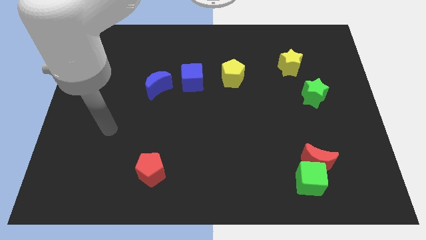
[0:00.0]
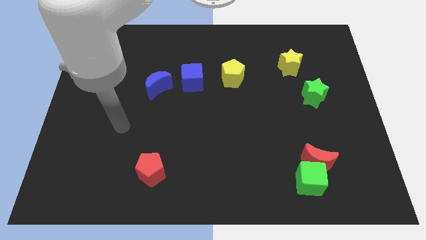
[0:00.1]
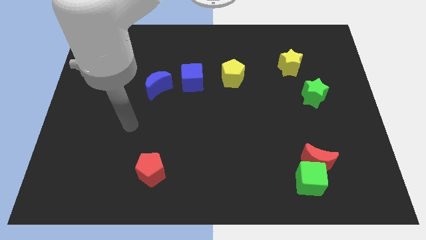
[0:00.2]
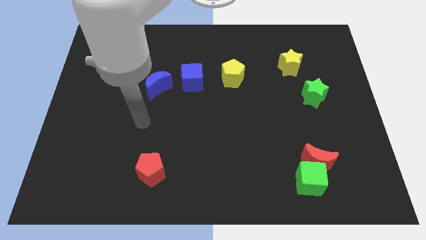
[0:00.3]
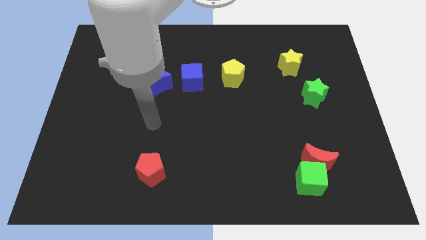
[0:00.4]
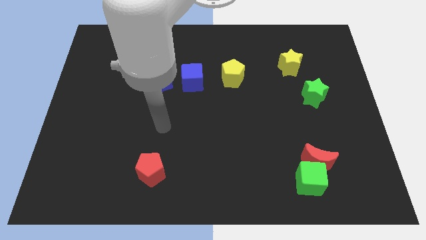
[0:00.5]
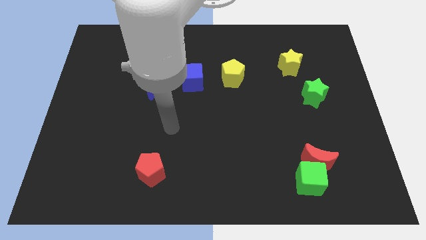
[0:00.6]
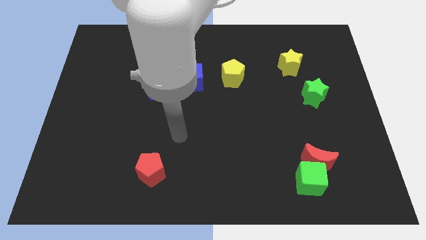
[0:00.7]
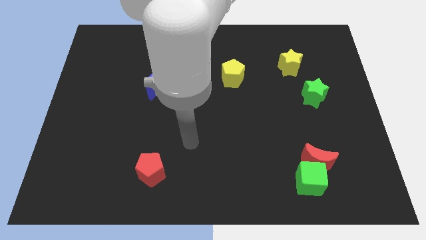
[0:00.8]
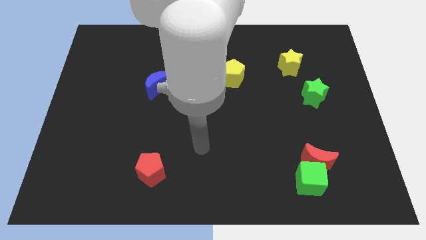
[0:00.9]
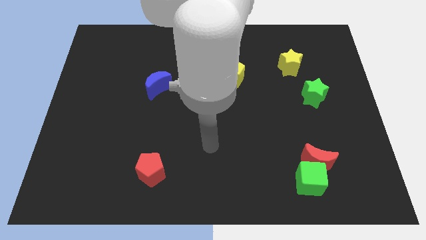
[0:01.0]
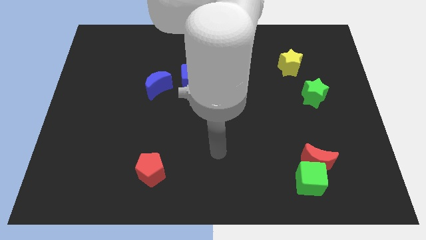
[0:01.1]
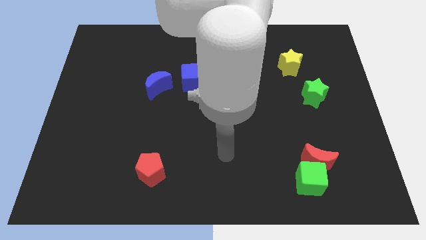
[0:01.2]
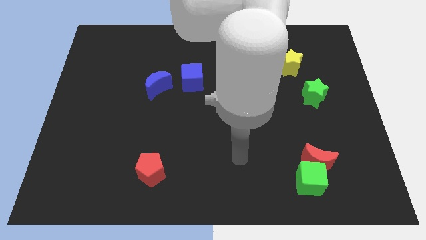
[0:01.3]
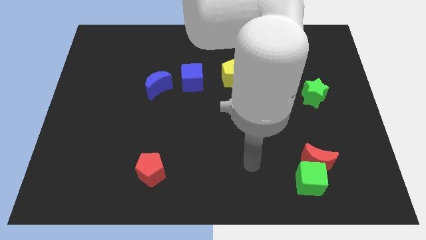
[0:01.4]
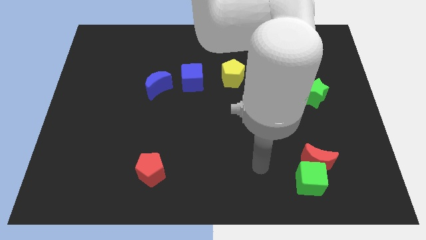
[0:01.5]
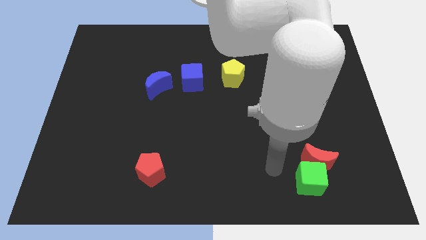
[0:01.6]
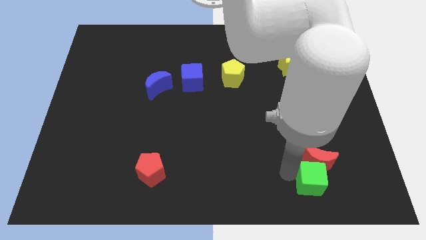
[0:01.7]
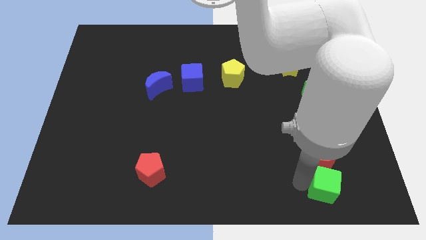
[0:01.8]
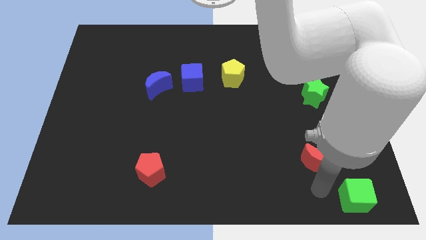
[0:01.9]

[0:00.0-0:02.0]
pull the red moon apart from the green cube

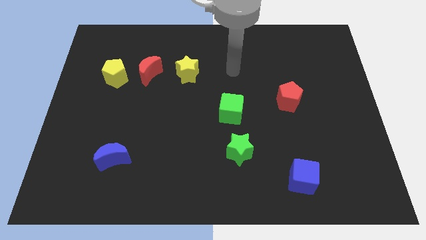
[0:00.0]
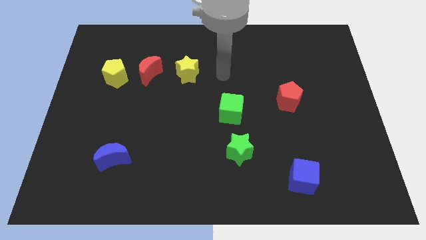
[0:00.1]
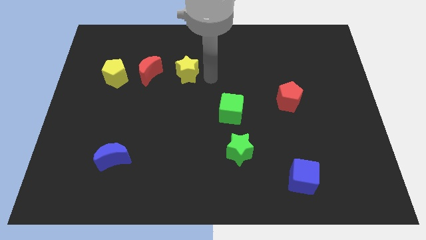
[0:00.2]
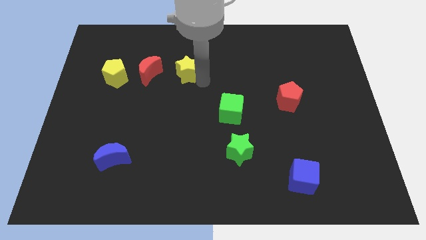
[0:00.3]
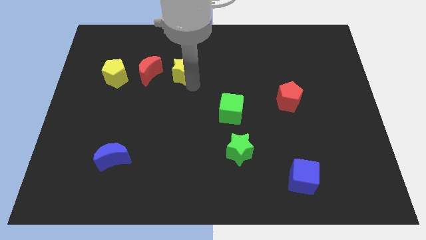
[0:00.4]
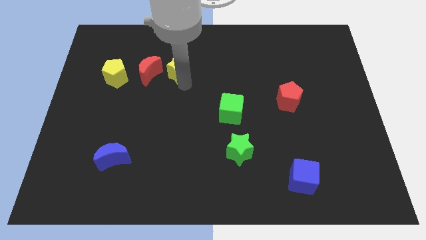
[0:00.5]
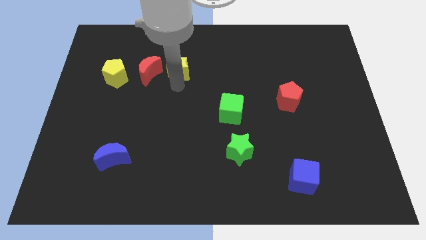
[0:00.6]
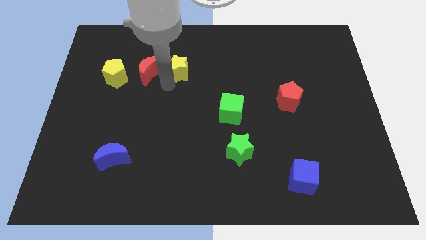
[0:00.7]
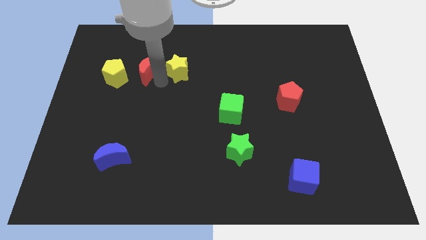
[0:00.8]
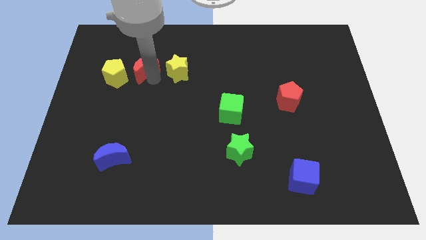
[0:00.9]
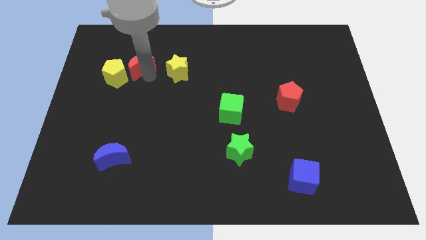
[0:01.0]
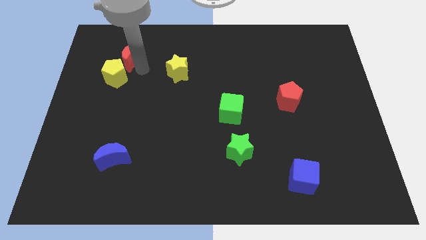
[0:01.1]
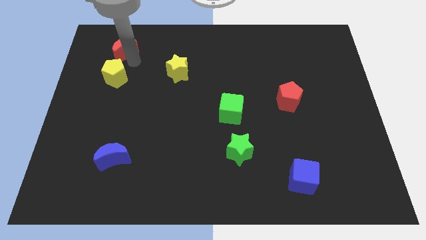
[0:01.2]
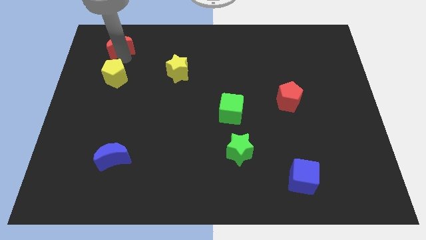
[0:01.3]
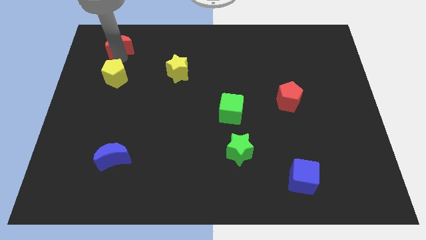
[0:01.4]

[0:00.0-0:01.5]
pull the yellow pentagon apart from the red moon

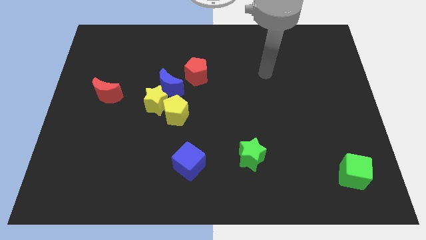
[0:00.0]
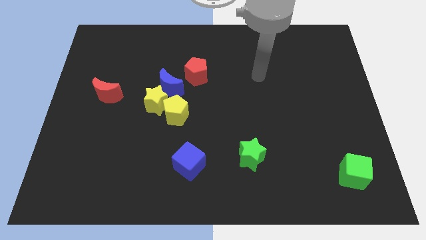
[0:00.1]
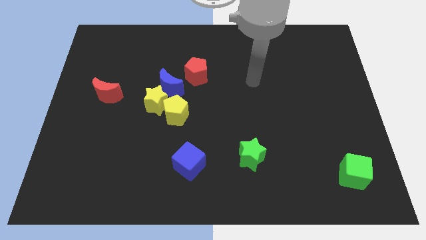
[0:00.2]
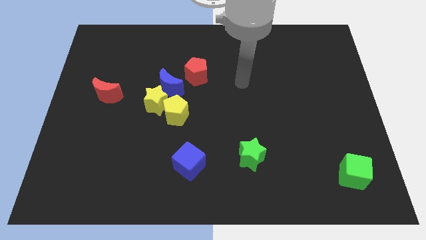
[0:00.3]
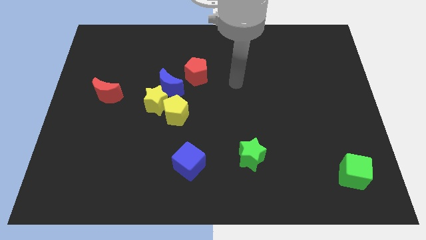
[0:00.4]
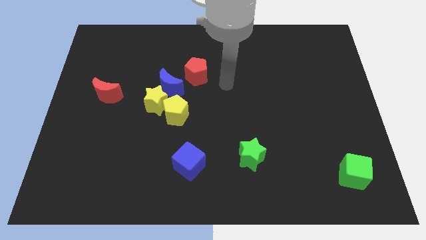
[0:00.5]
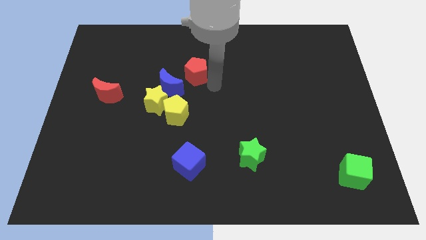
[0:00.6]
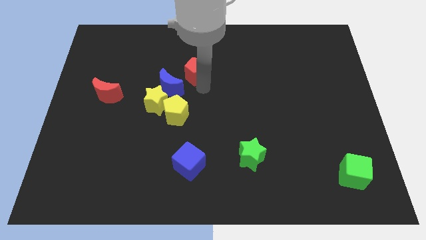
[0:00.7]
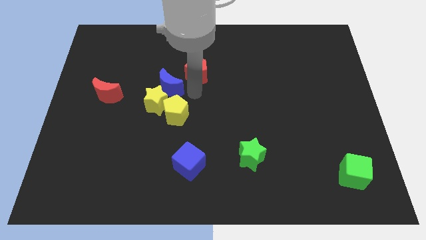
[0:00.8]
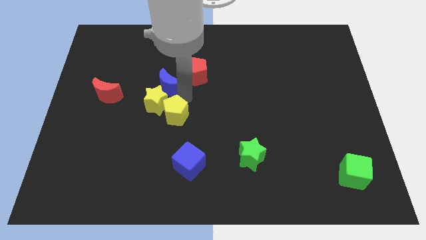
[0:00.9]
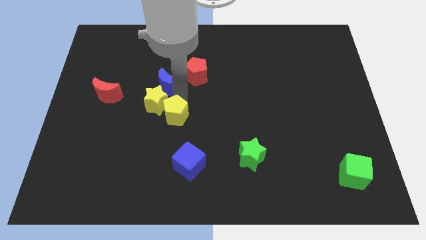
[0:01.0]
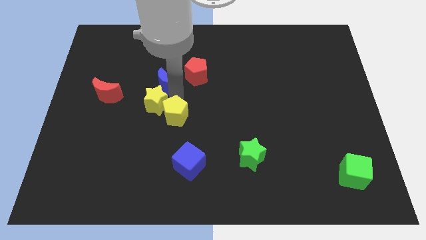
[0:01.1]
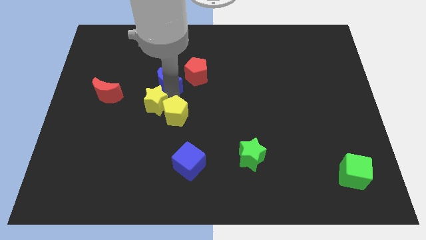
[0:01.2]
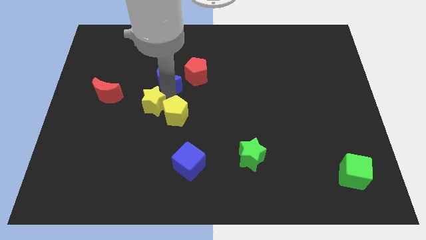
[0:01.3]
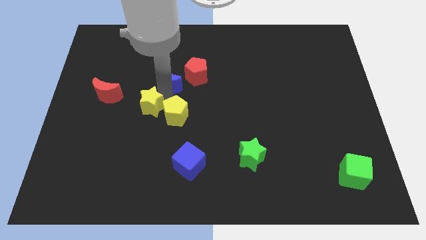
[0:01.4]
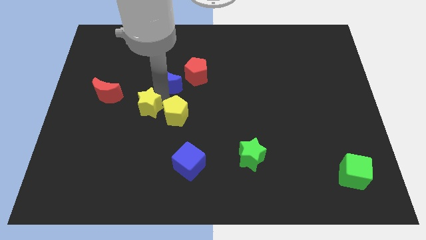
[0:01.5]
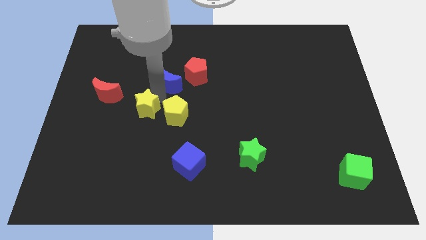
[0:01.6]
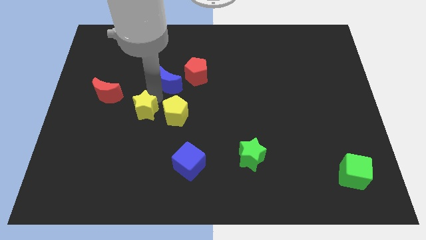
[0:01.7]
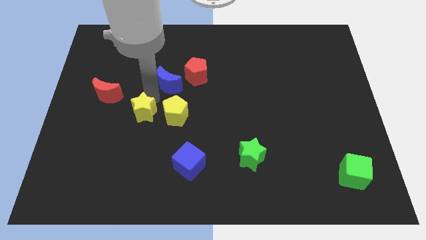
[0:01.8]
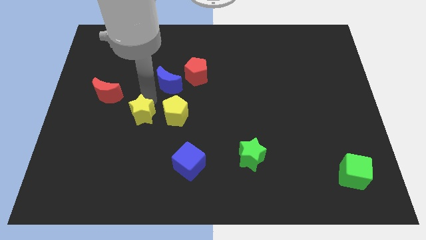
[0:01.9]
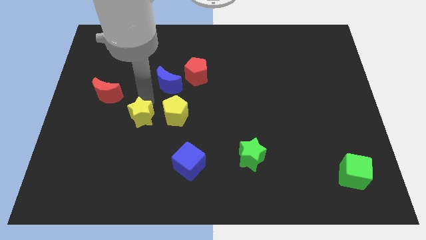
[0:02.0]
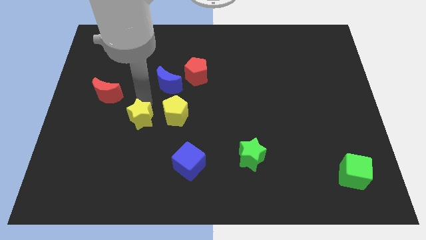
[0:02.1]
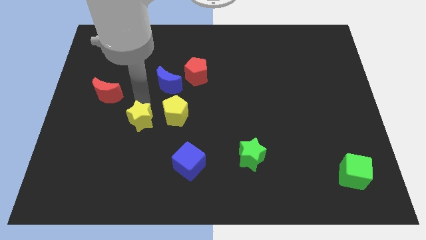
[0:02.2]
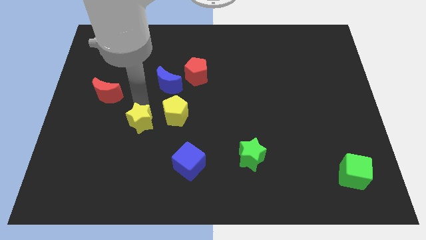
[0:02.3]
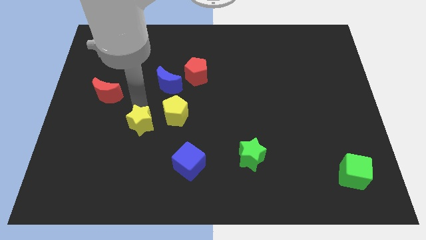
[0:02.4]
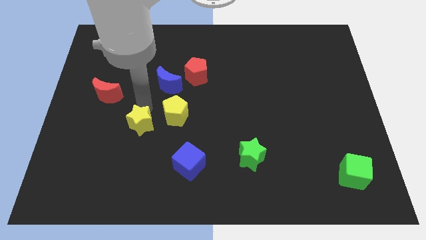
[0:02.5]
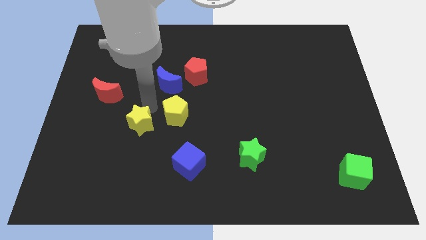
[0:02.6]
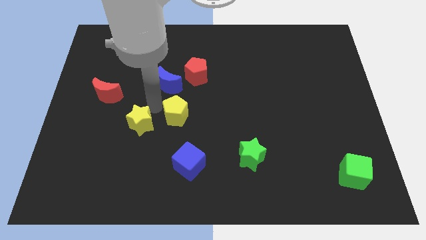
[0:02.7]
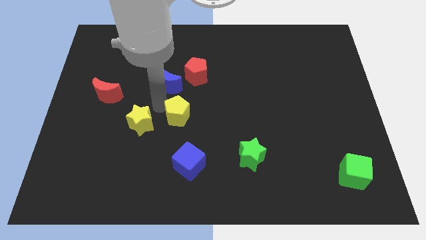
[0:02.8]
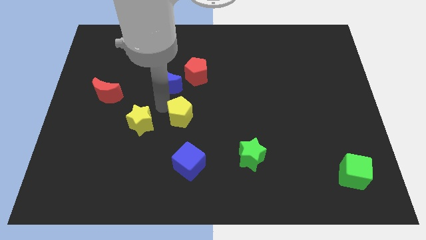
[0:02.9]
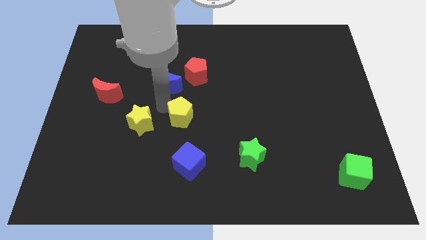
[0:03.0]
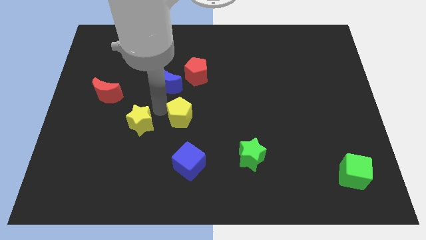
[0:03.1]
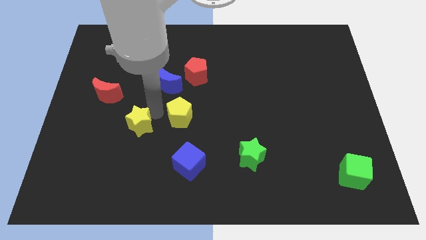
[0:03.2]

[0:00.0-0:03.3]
pull the yellow star apart from the yellow pentagon and blue moon

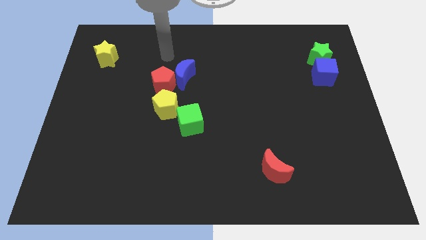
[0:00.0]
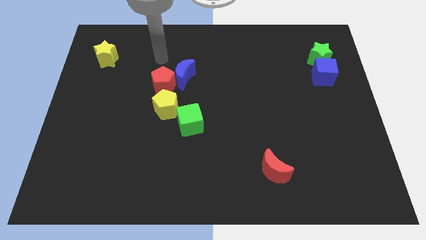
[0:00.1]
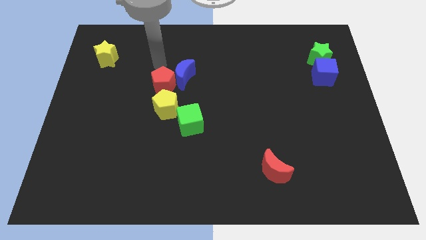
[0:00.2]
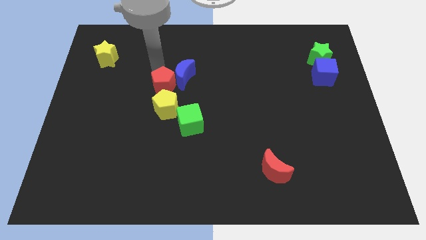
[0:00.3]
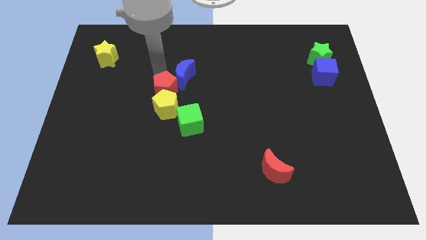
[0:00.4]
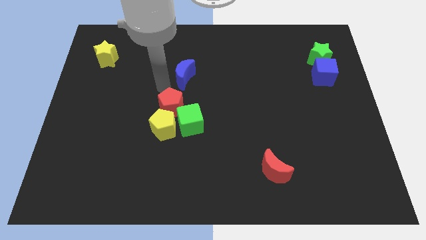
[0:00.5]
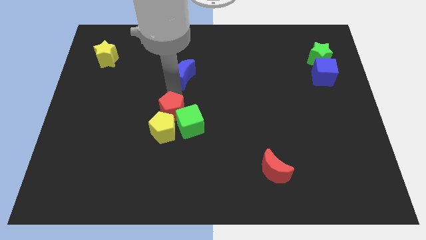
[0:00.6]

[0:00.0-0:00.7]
pull the blue moon apart from the red pentagon

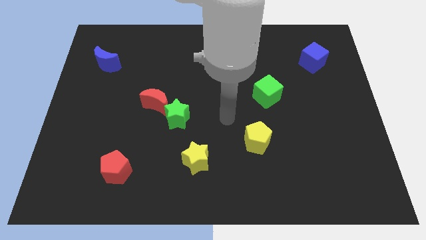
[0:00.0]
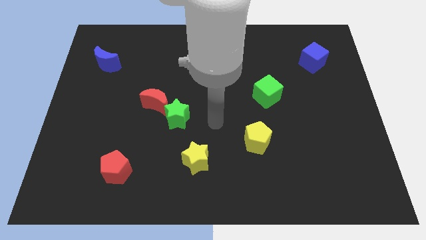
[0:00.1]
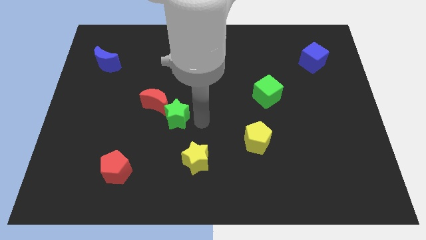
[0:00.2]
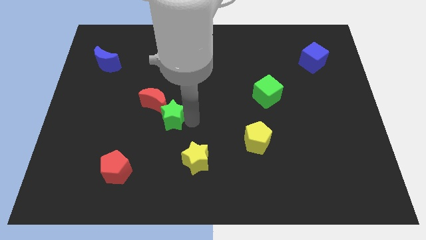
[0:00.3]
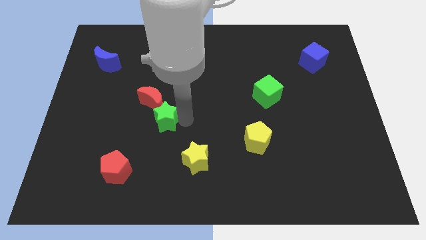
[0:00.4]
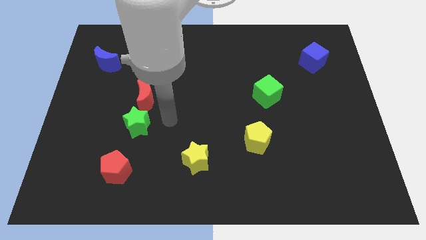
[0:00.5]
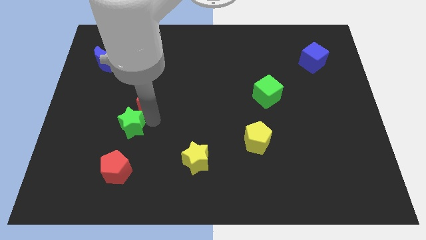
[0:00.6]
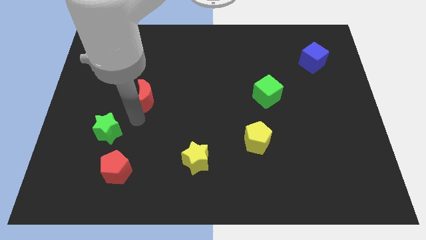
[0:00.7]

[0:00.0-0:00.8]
pull the red moon apart from the green star

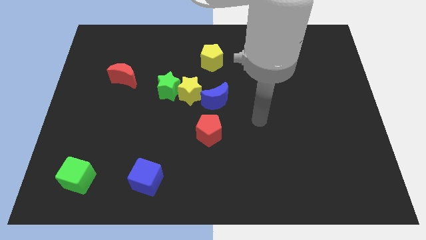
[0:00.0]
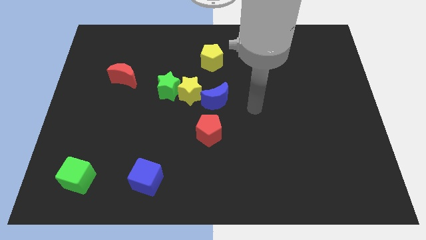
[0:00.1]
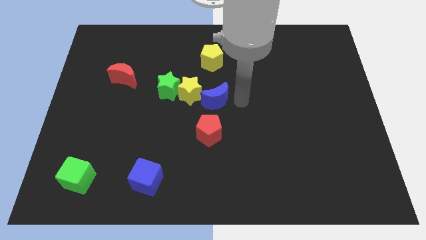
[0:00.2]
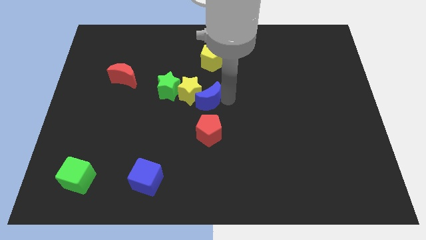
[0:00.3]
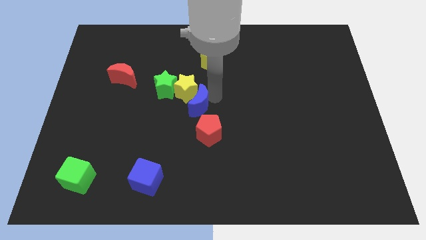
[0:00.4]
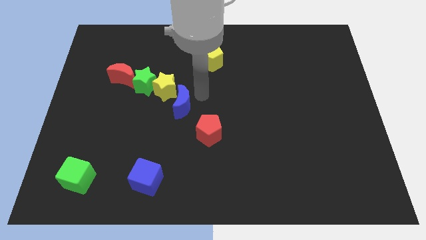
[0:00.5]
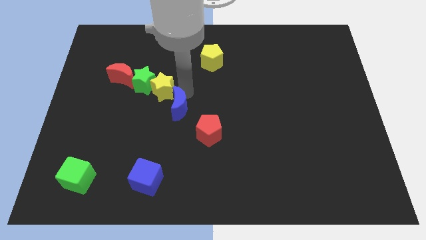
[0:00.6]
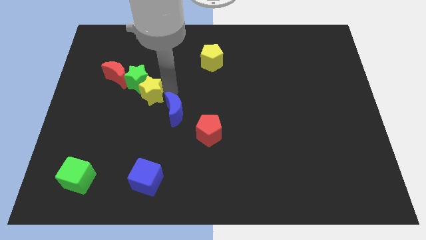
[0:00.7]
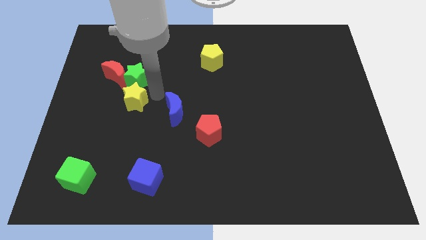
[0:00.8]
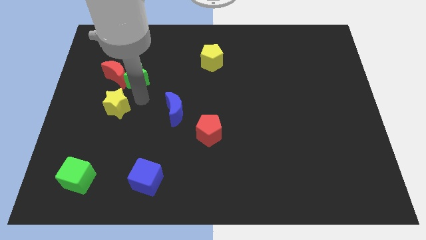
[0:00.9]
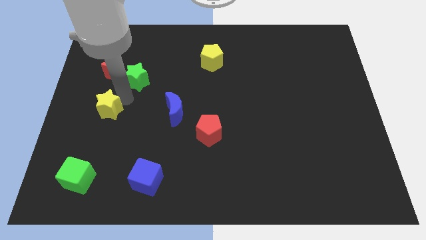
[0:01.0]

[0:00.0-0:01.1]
pull the green star apart from the yellow star
